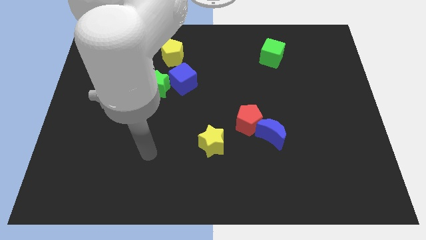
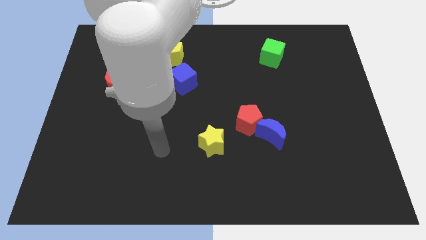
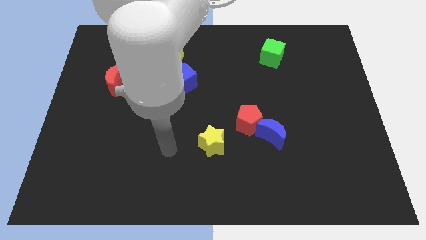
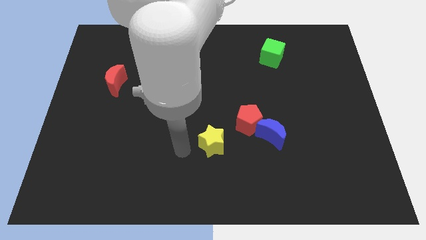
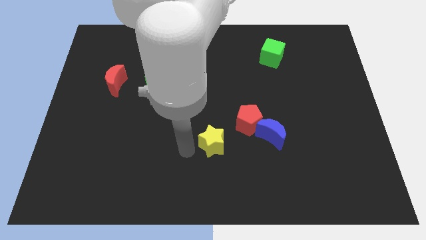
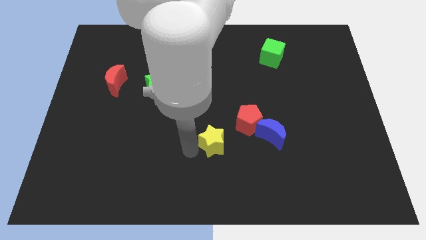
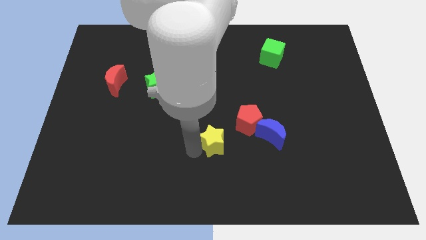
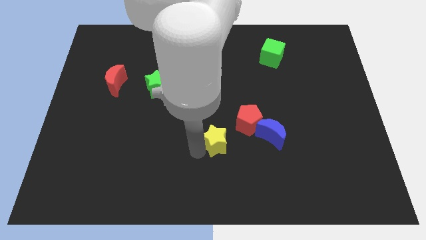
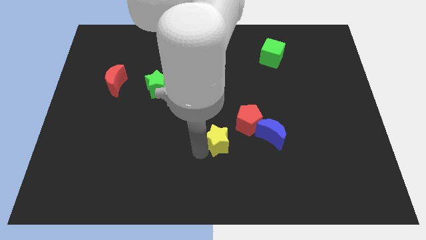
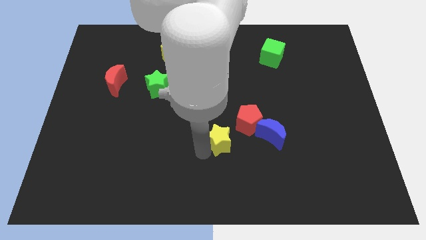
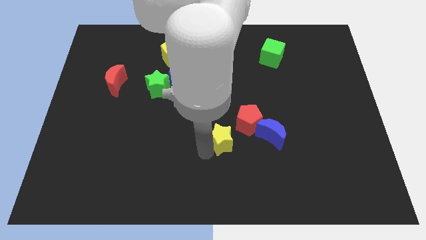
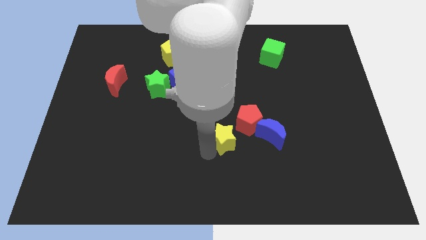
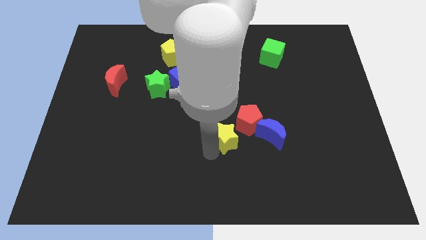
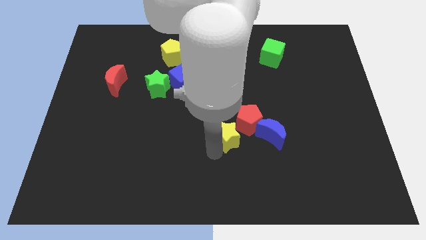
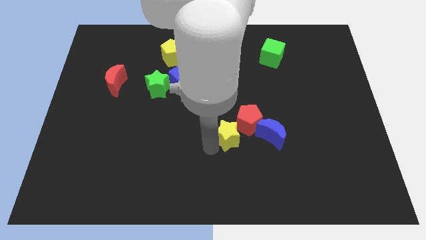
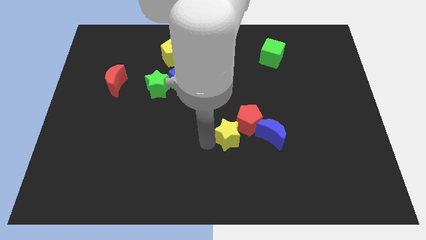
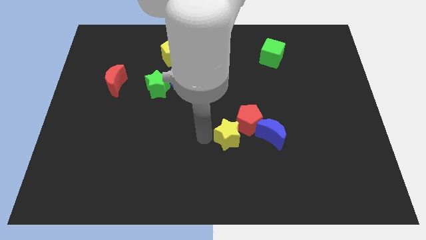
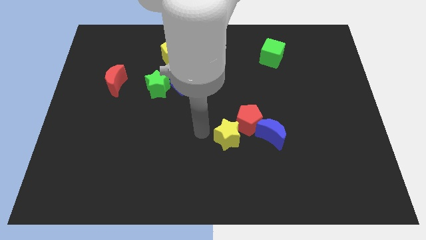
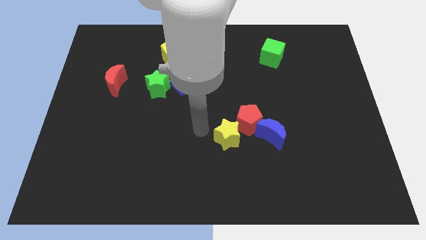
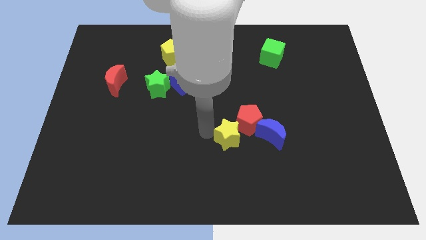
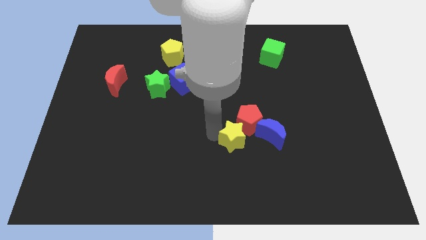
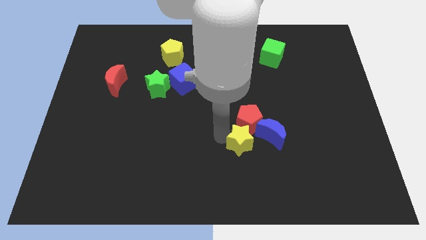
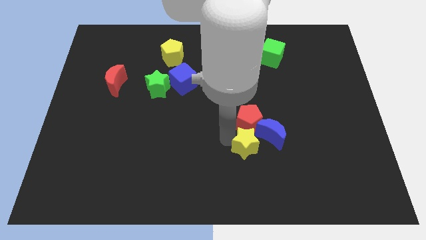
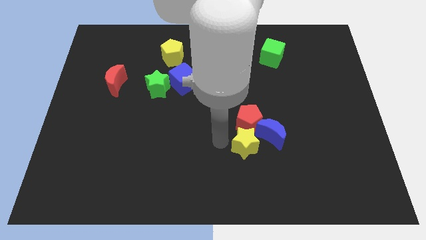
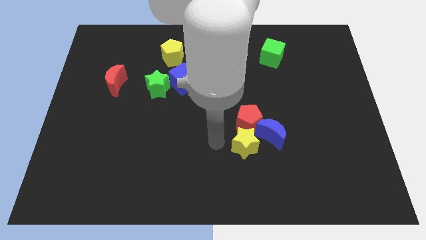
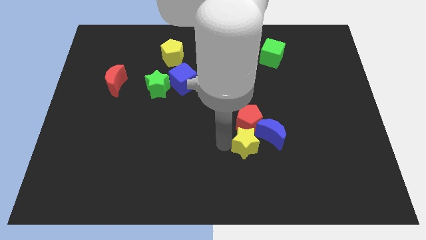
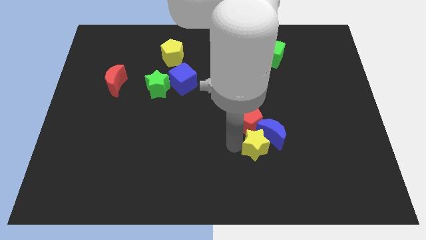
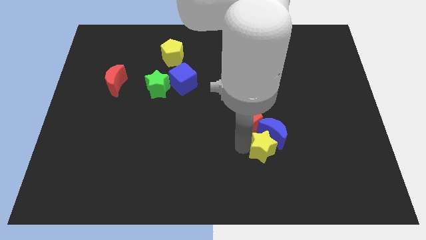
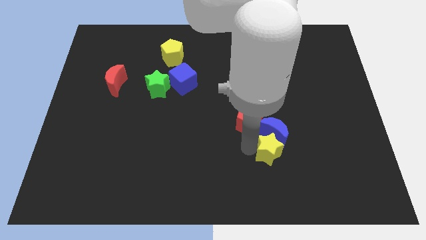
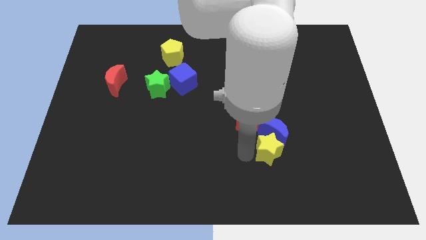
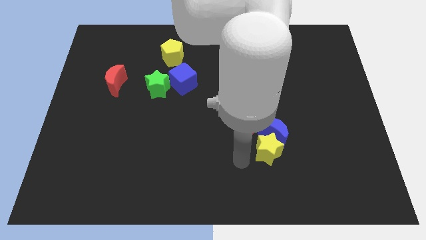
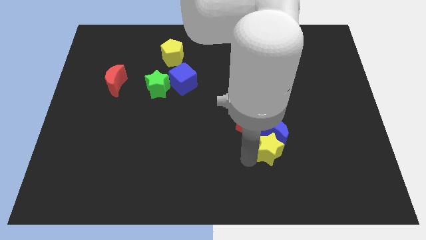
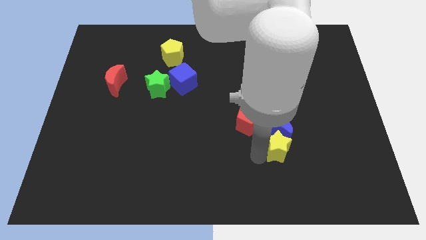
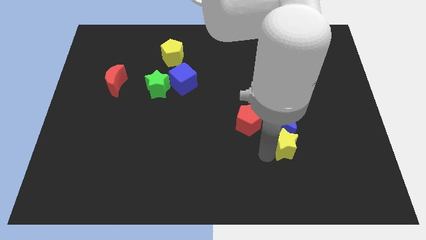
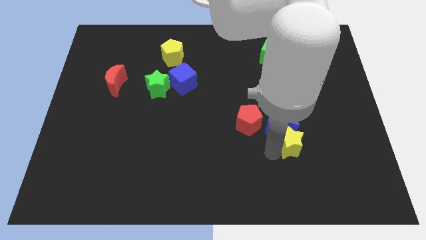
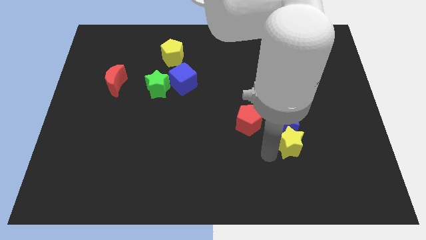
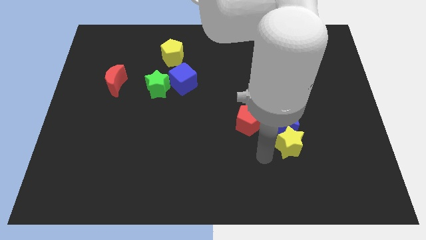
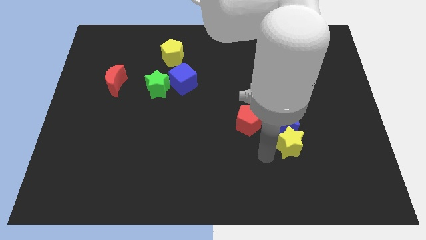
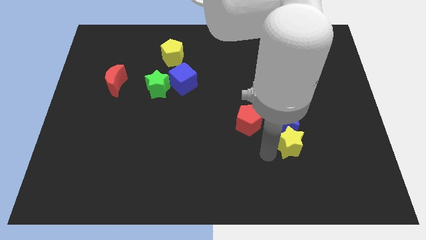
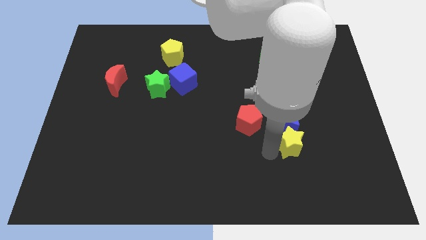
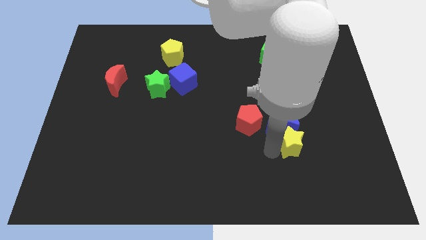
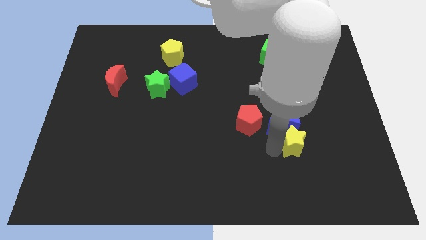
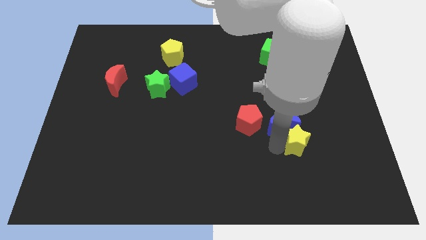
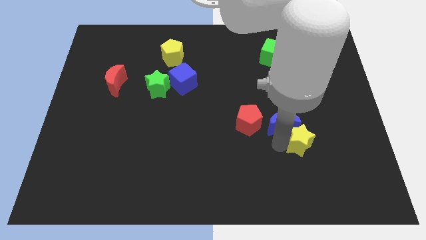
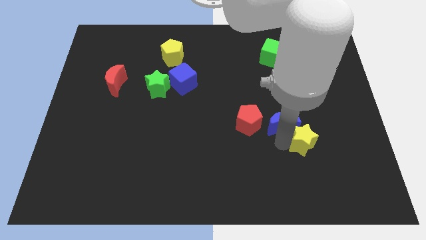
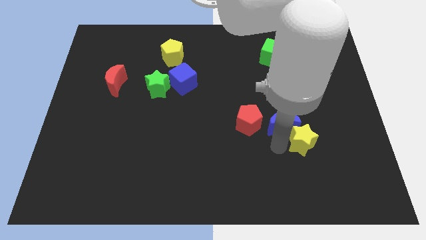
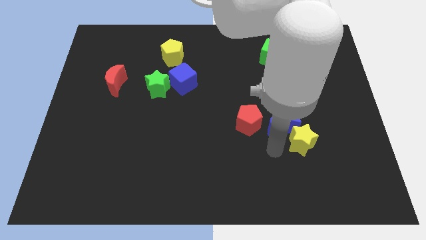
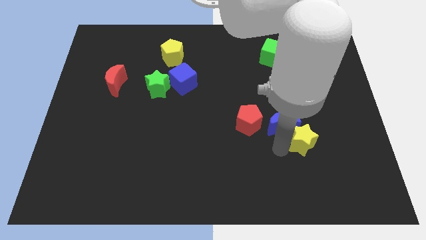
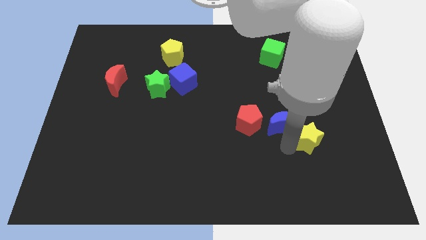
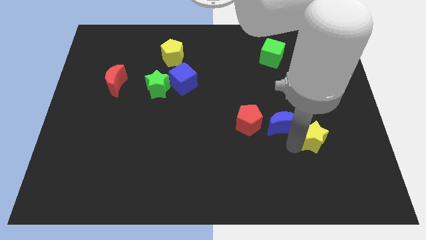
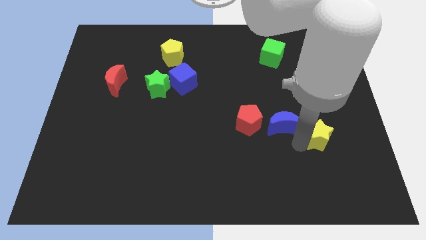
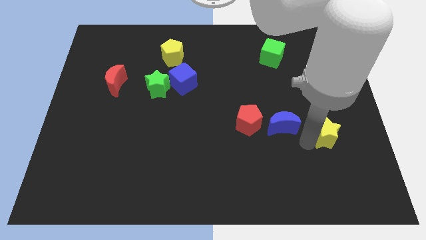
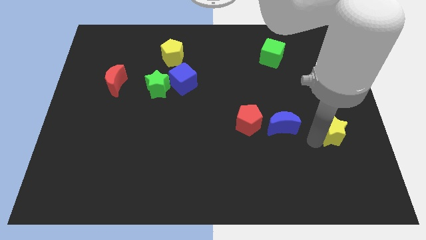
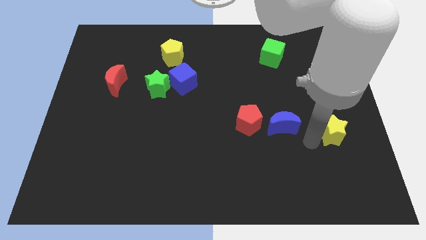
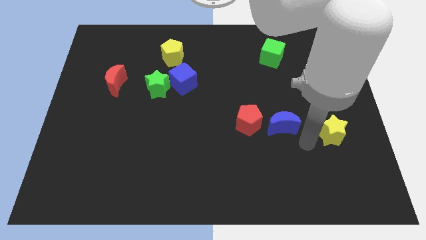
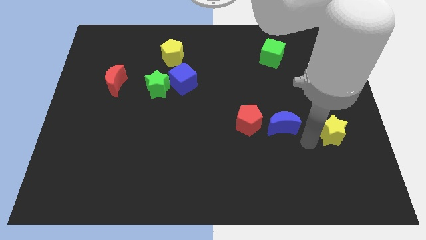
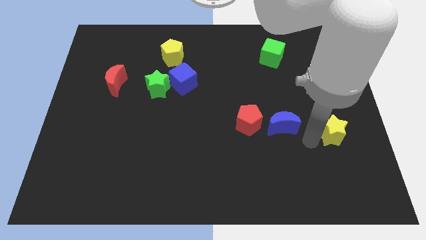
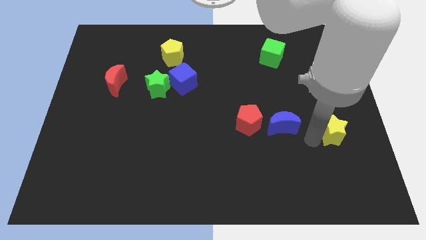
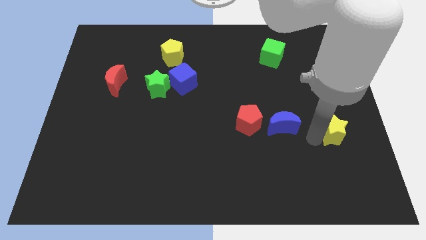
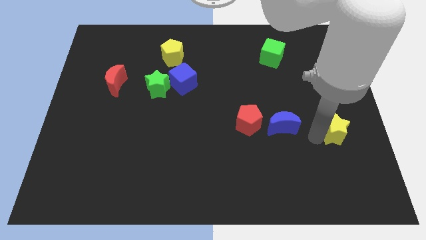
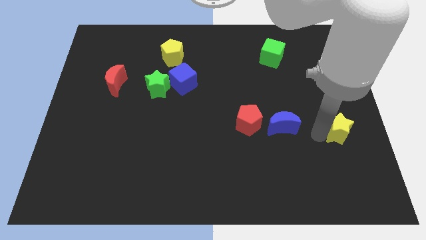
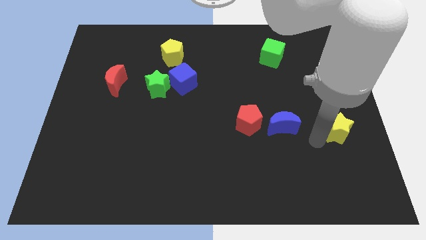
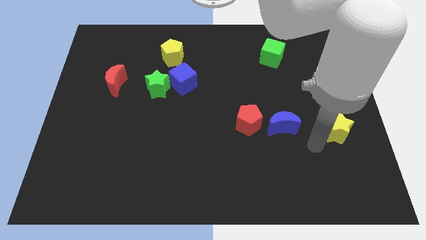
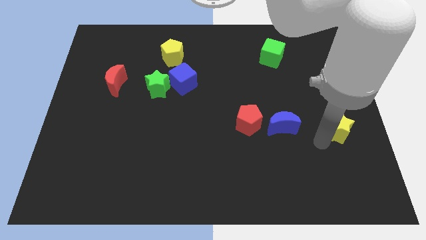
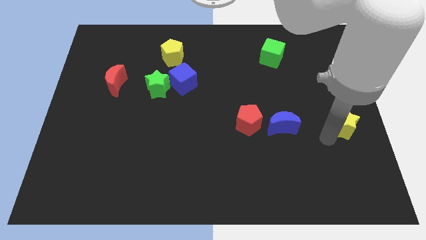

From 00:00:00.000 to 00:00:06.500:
slide the yellow star to the right side of the board
